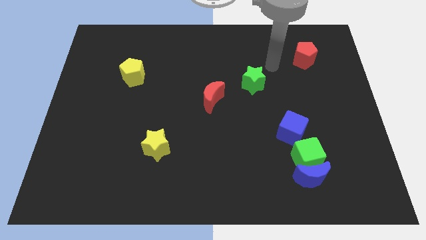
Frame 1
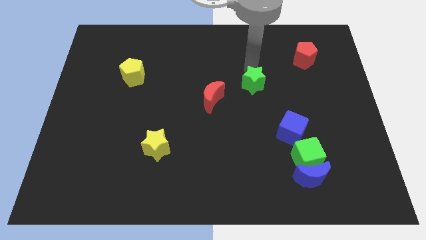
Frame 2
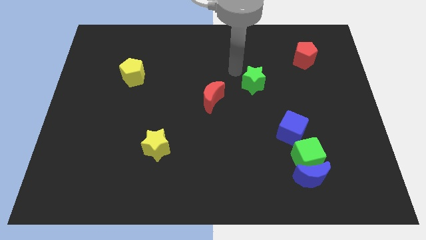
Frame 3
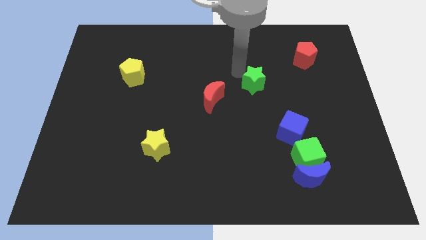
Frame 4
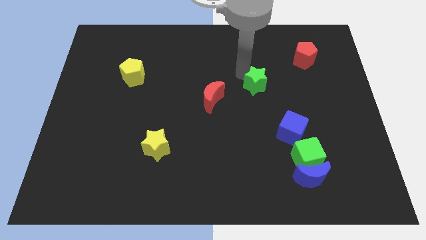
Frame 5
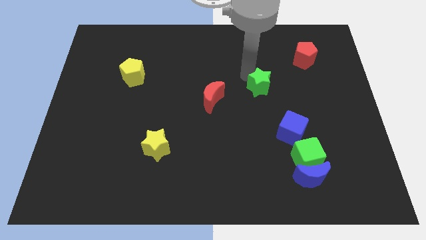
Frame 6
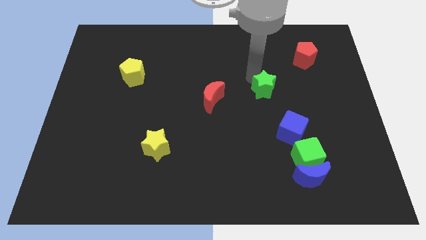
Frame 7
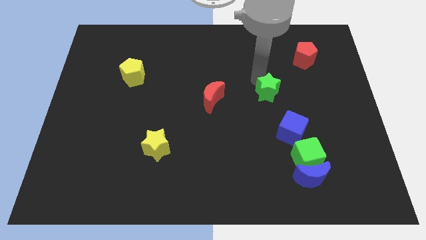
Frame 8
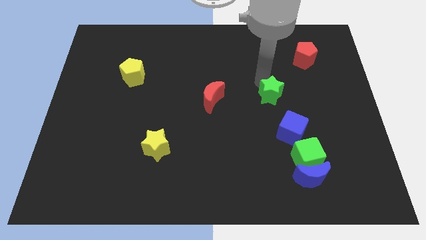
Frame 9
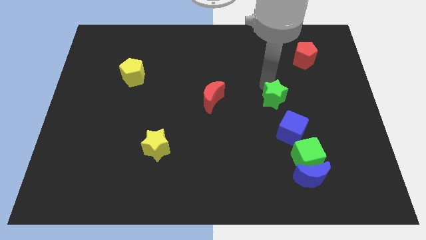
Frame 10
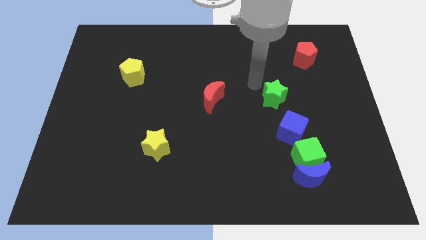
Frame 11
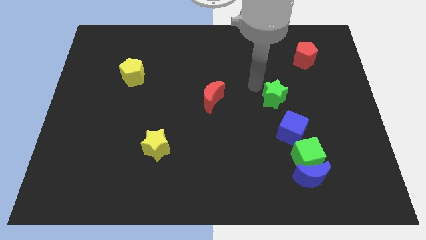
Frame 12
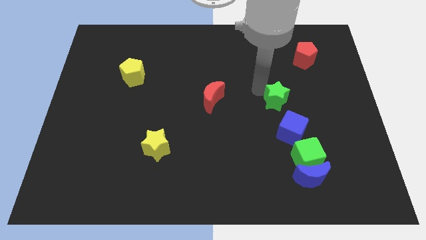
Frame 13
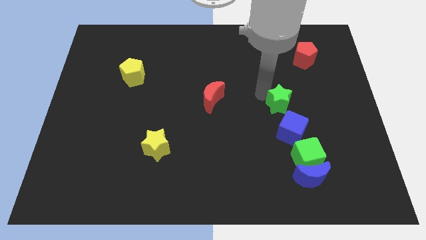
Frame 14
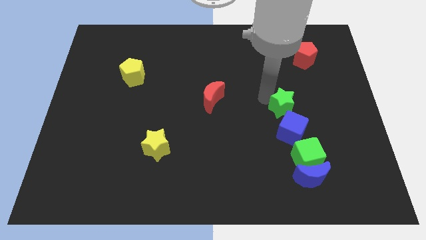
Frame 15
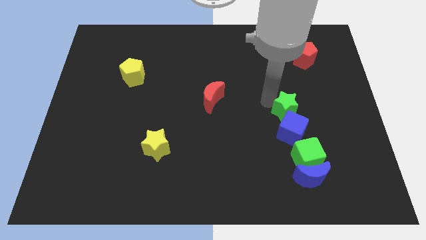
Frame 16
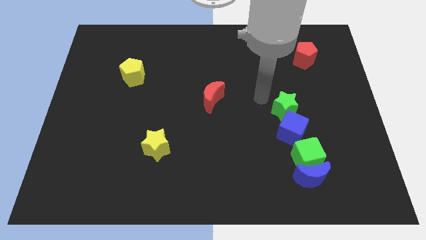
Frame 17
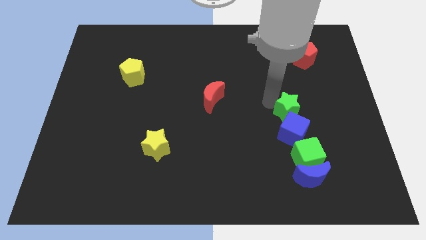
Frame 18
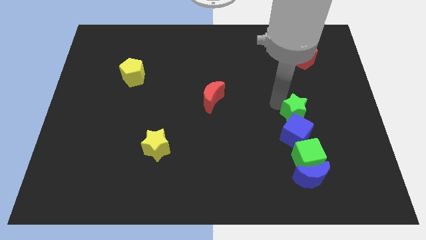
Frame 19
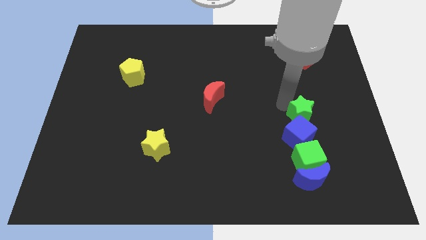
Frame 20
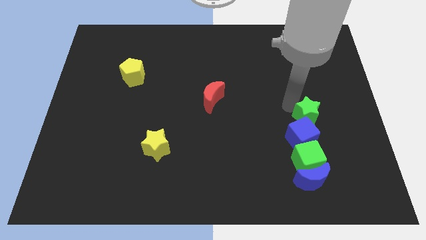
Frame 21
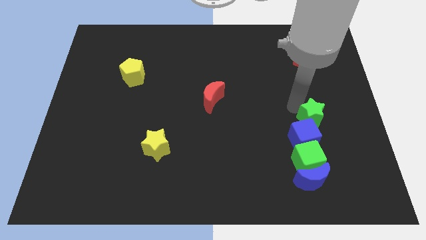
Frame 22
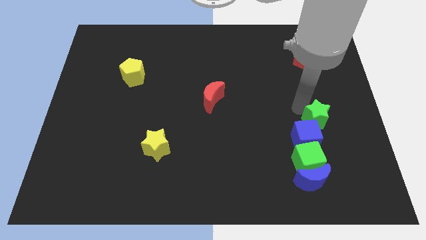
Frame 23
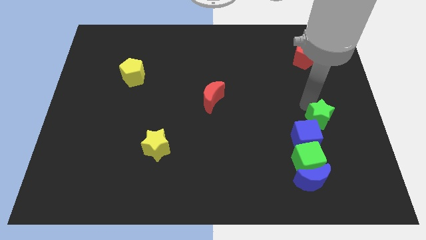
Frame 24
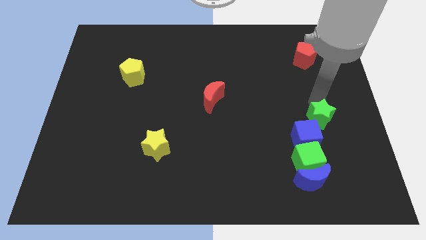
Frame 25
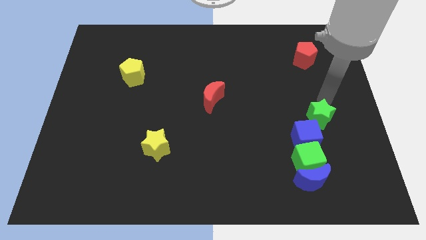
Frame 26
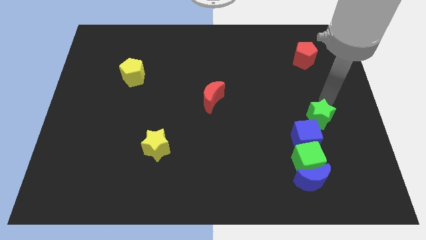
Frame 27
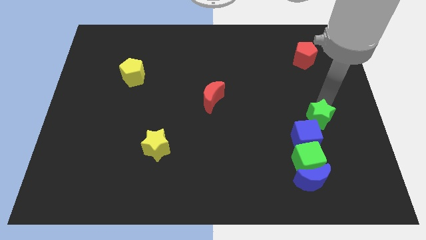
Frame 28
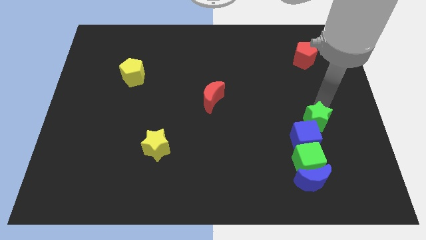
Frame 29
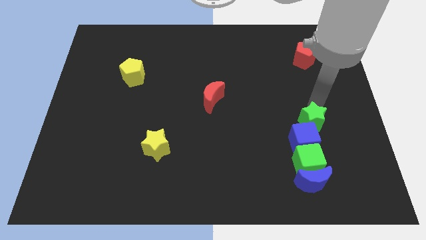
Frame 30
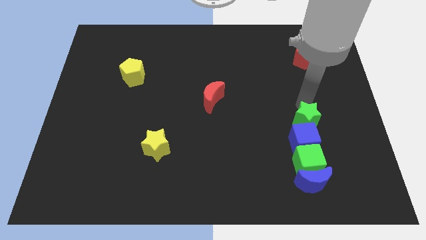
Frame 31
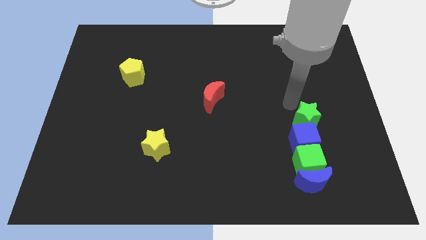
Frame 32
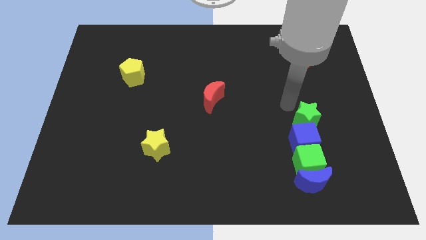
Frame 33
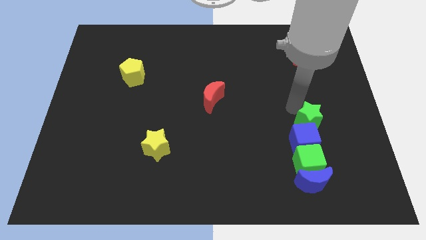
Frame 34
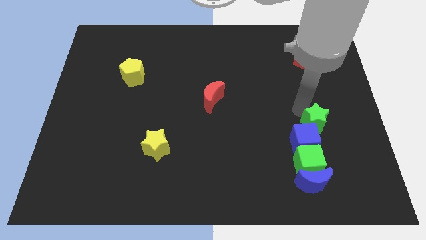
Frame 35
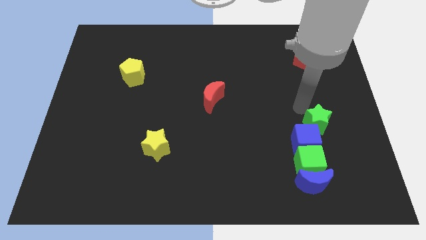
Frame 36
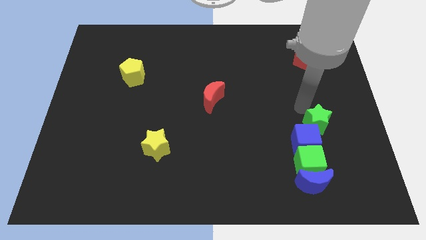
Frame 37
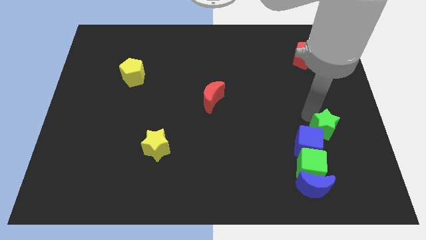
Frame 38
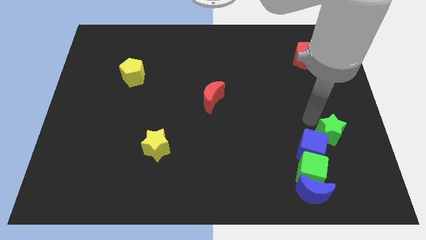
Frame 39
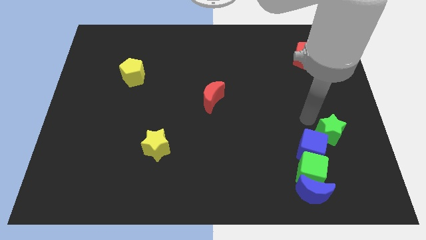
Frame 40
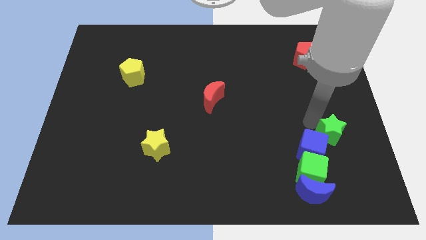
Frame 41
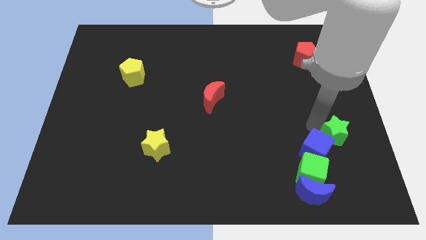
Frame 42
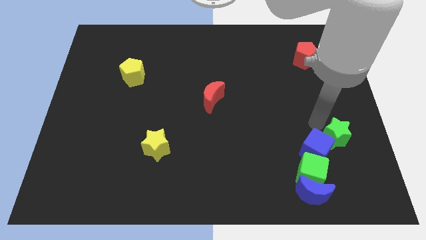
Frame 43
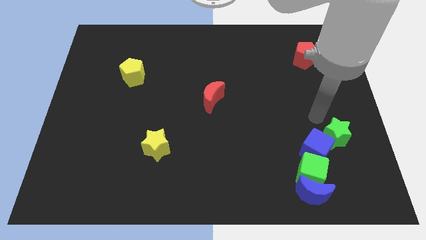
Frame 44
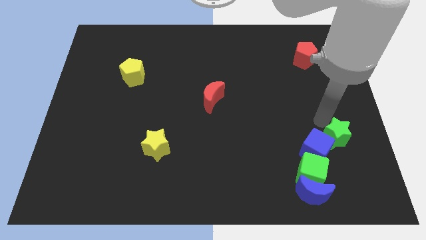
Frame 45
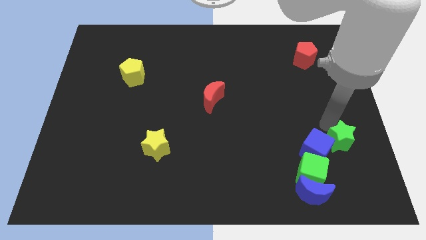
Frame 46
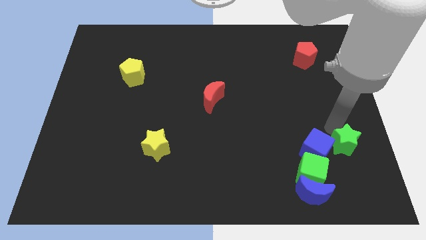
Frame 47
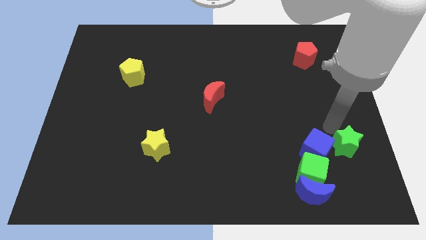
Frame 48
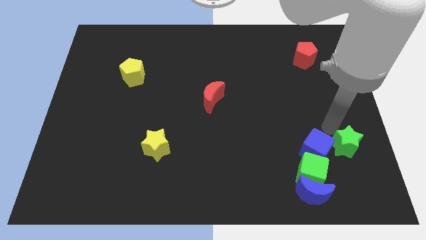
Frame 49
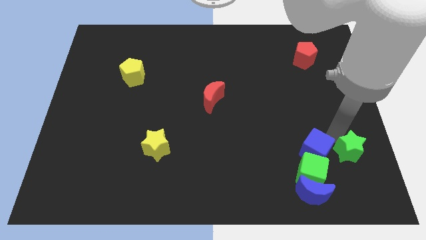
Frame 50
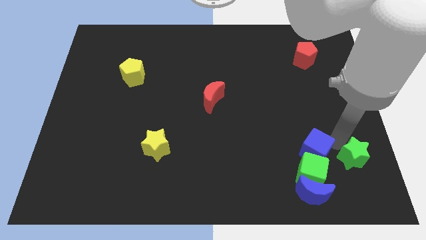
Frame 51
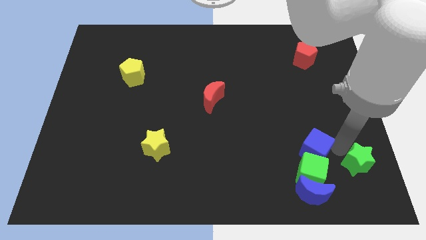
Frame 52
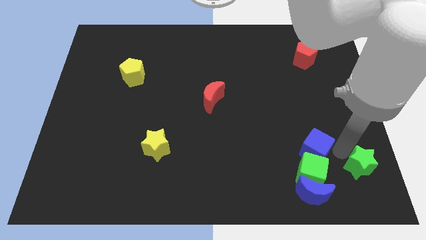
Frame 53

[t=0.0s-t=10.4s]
move the green star to the bottom right

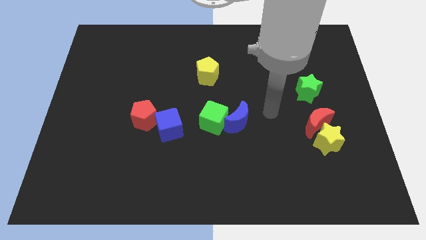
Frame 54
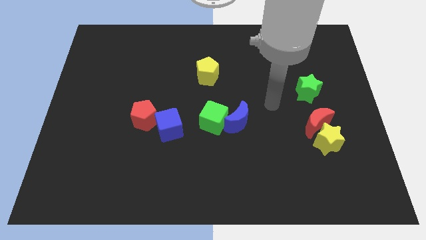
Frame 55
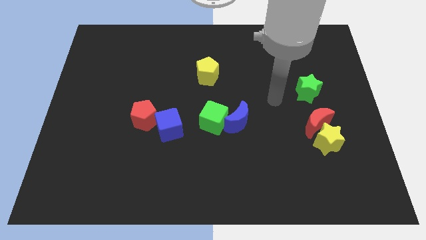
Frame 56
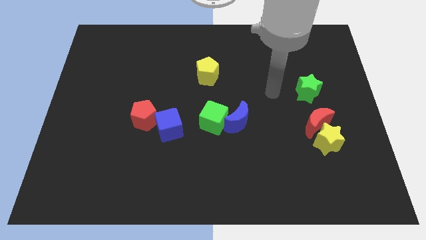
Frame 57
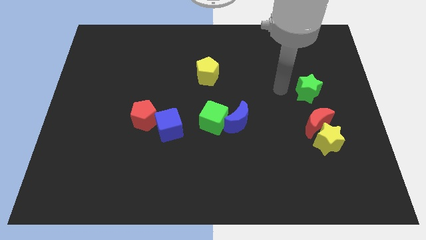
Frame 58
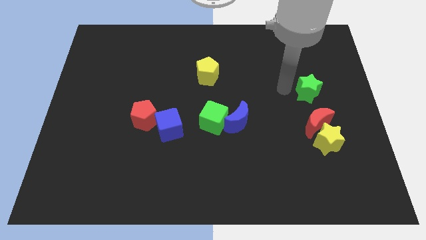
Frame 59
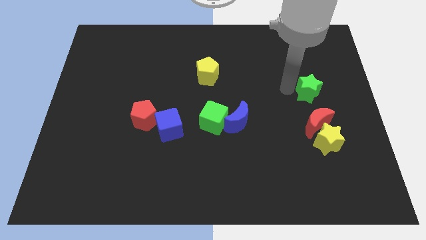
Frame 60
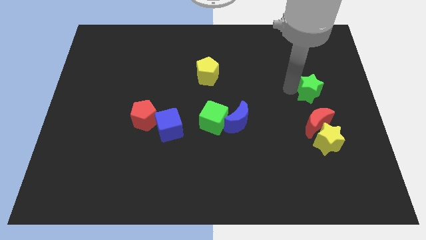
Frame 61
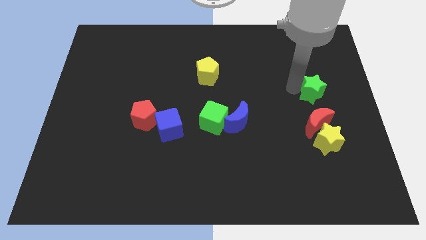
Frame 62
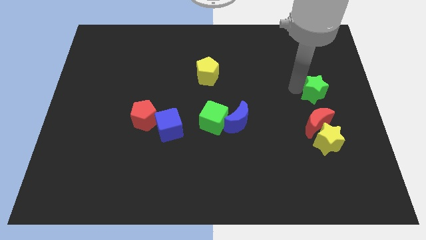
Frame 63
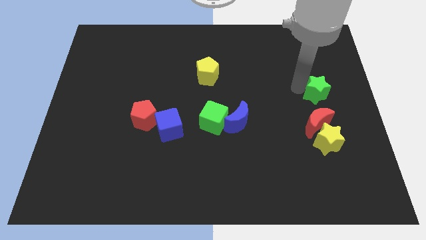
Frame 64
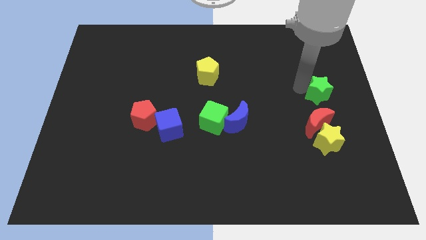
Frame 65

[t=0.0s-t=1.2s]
push the green star to the center right
